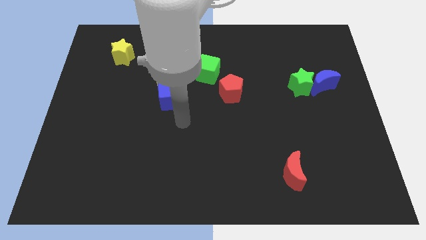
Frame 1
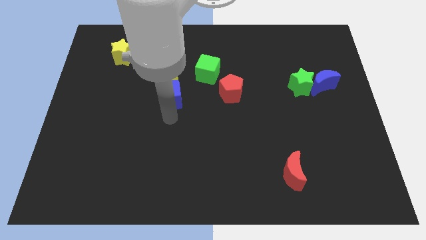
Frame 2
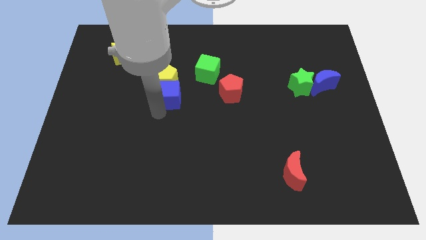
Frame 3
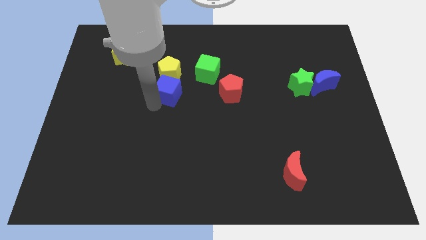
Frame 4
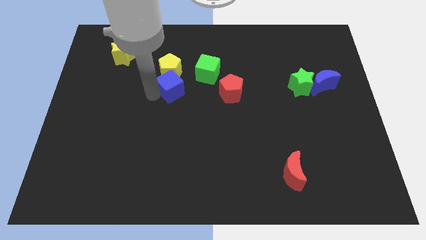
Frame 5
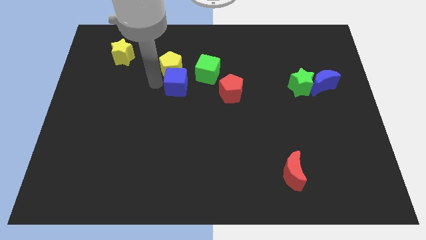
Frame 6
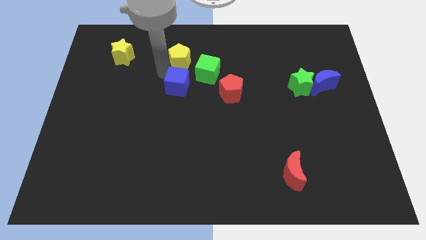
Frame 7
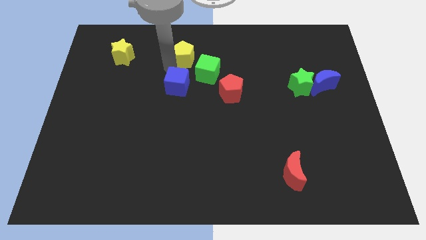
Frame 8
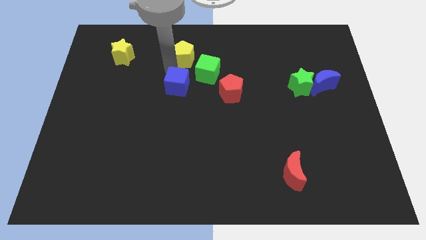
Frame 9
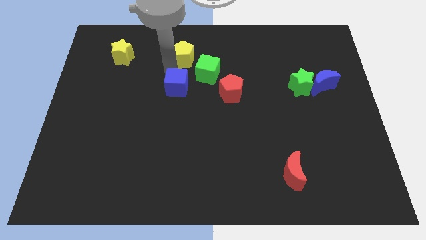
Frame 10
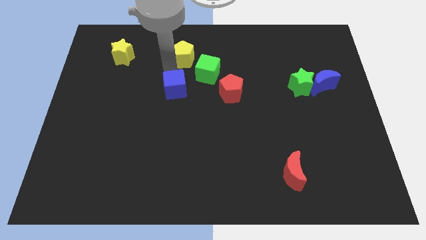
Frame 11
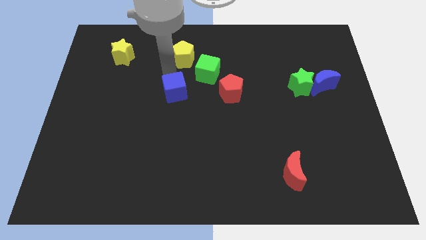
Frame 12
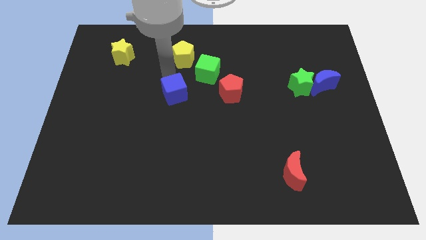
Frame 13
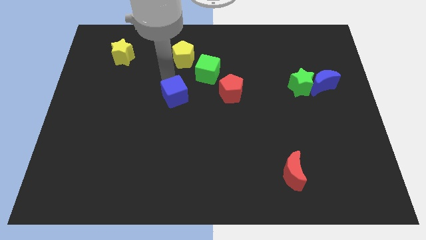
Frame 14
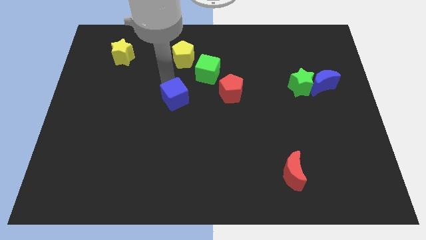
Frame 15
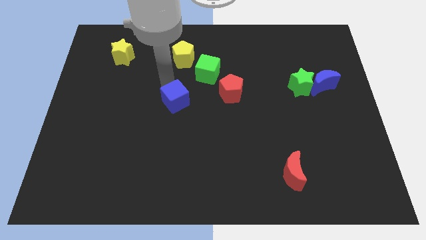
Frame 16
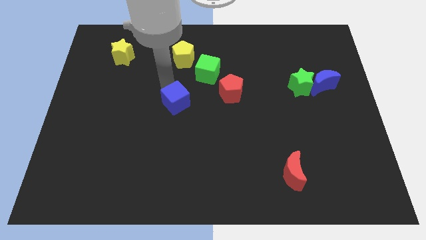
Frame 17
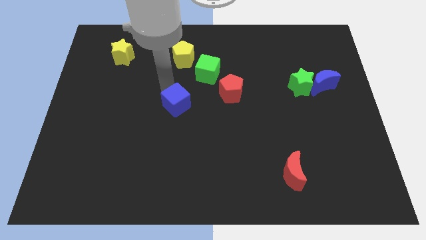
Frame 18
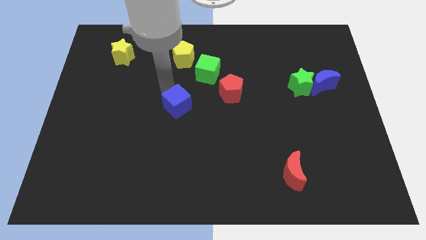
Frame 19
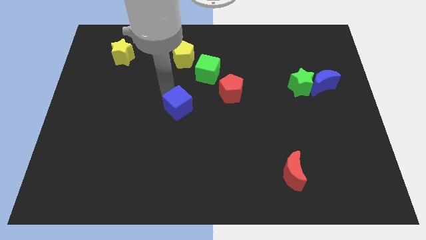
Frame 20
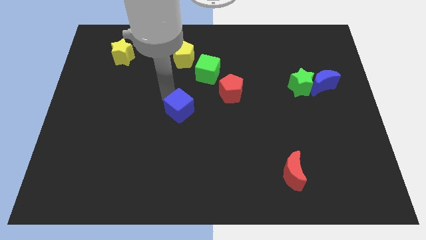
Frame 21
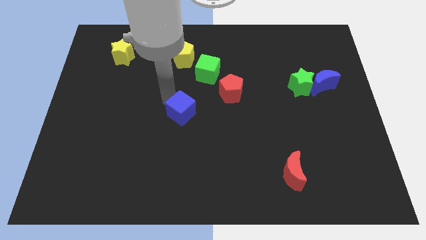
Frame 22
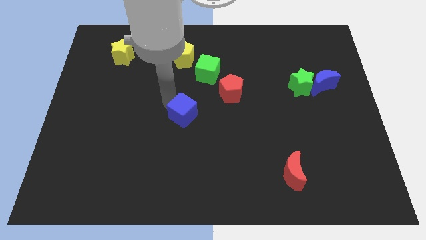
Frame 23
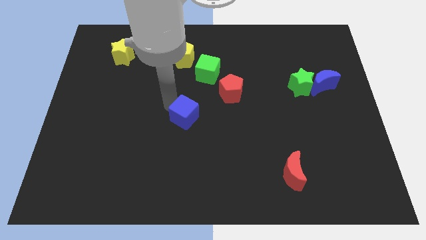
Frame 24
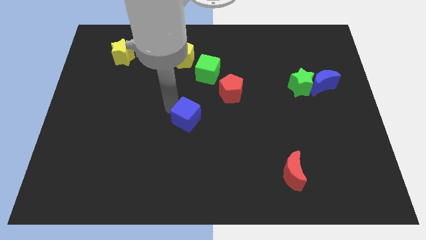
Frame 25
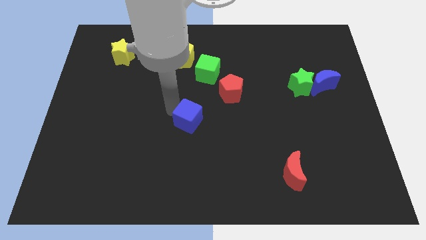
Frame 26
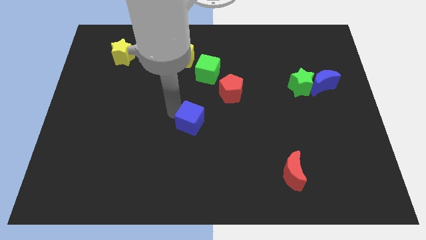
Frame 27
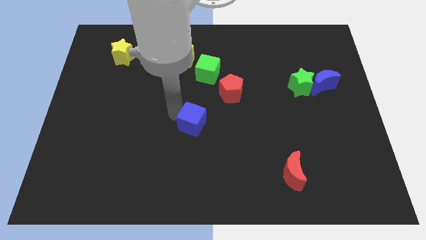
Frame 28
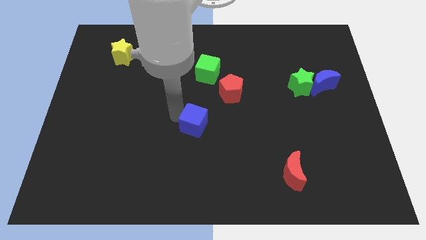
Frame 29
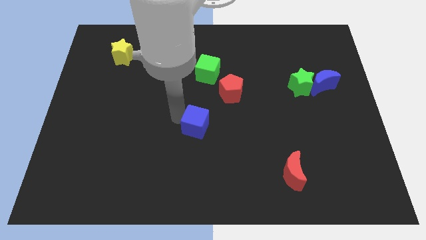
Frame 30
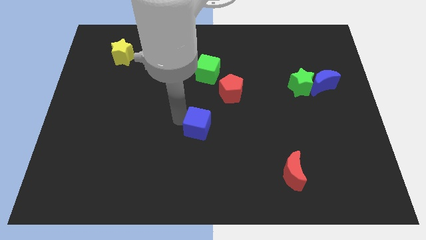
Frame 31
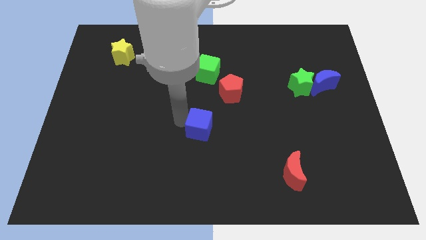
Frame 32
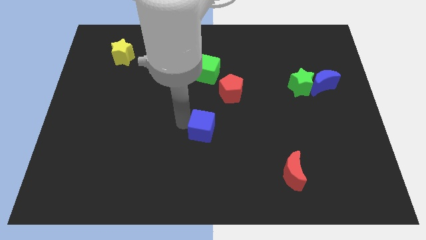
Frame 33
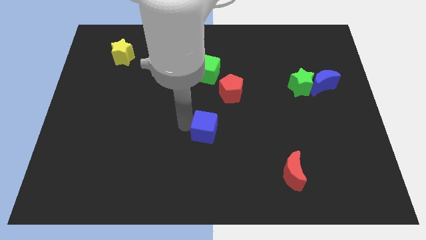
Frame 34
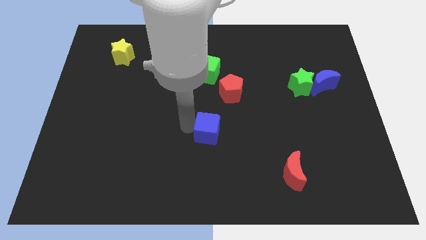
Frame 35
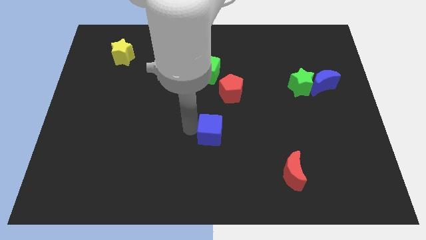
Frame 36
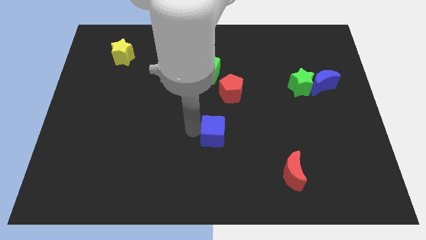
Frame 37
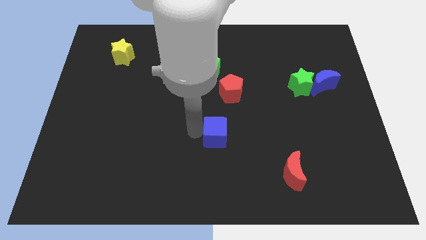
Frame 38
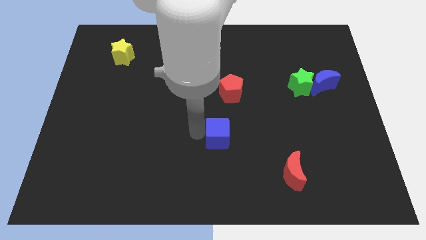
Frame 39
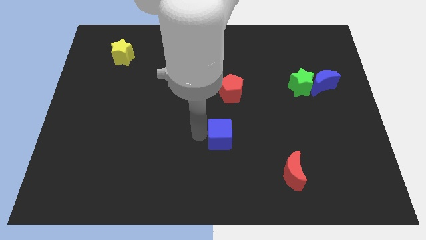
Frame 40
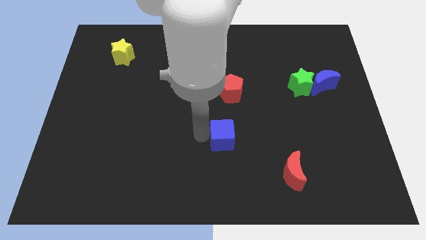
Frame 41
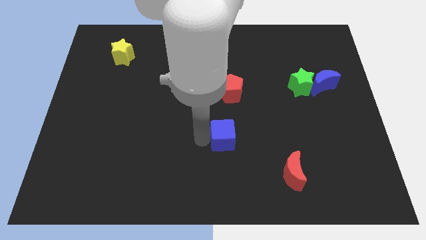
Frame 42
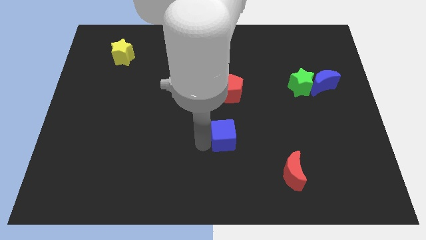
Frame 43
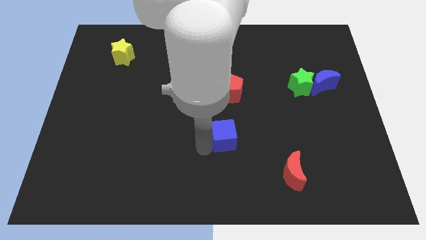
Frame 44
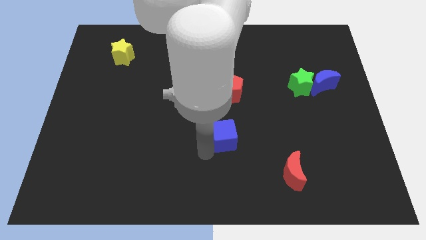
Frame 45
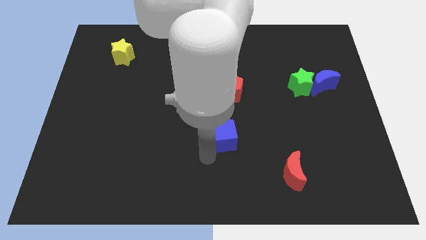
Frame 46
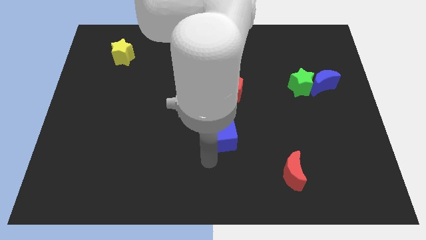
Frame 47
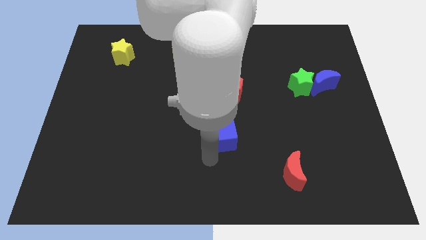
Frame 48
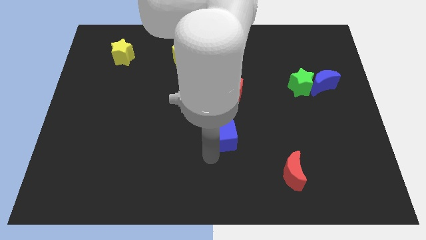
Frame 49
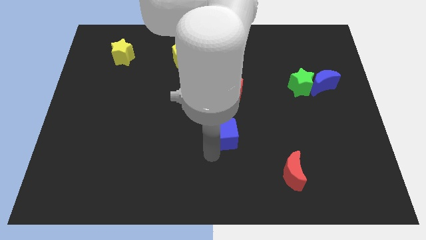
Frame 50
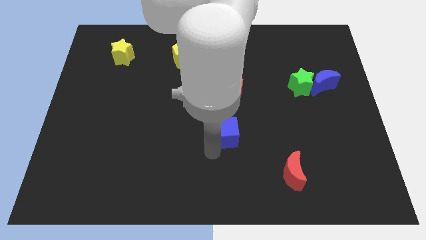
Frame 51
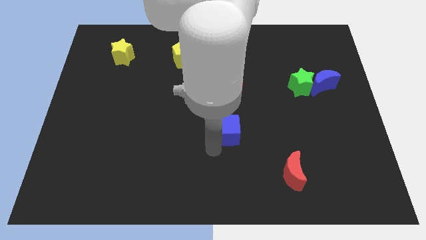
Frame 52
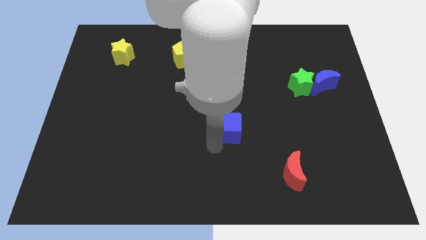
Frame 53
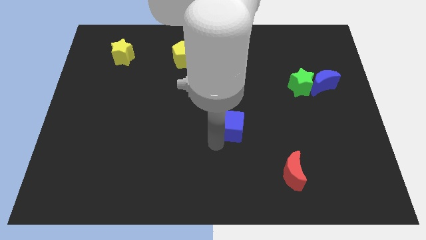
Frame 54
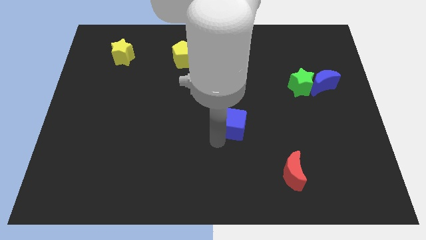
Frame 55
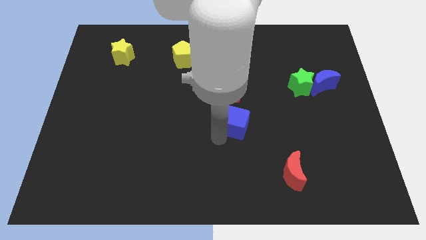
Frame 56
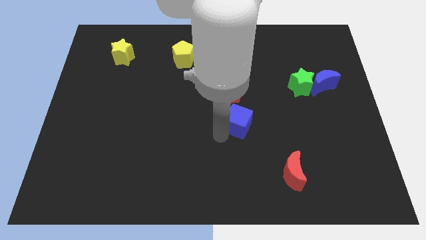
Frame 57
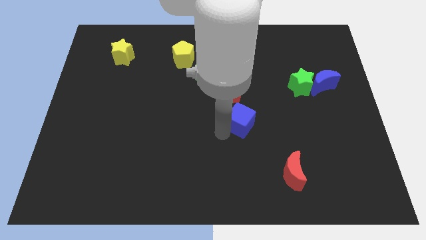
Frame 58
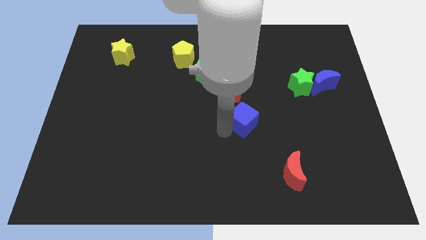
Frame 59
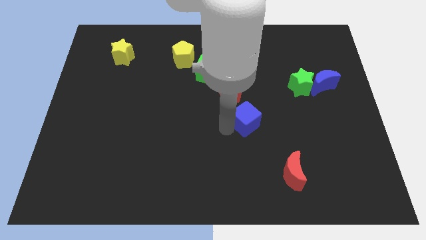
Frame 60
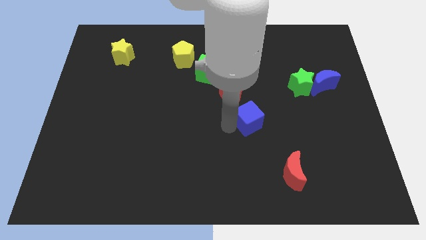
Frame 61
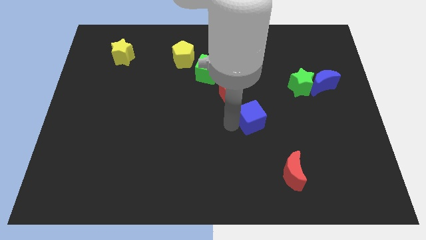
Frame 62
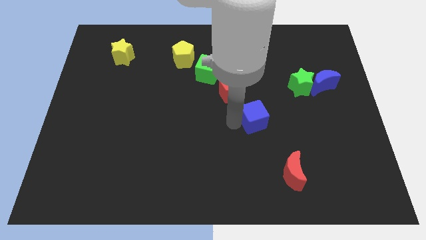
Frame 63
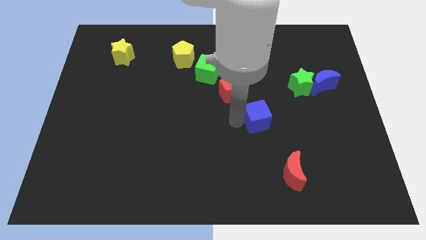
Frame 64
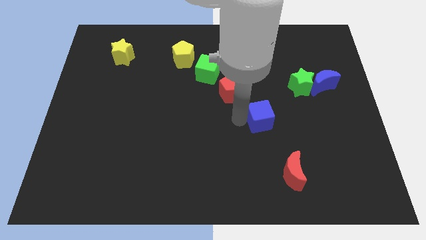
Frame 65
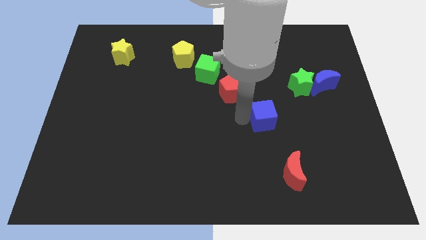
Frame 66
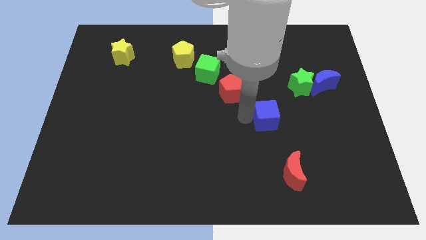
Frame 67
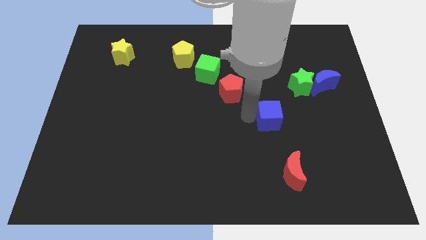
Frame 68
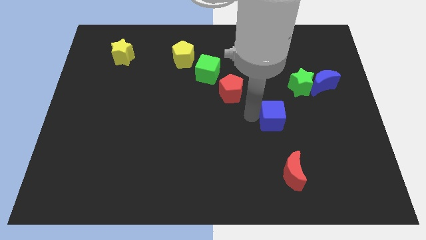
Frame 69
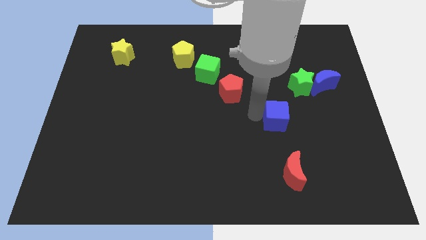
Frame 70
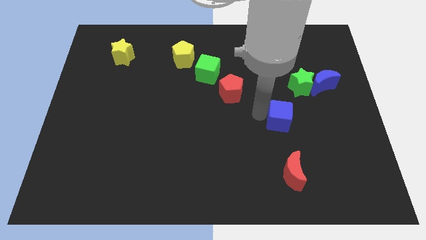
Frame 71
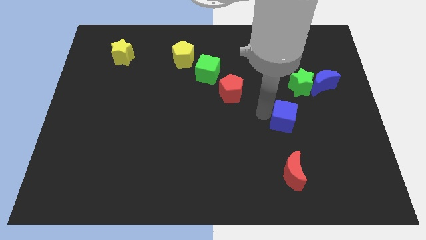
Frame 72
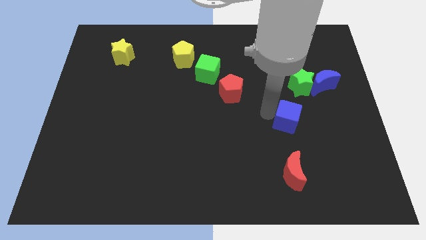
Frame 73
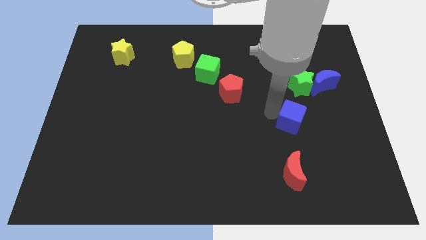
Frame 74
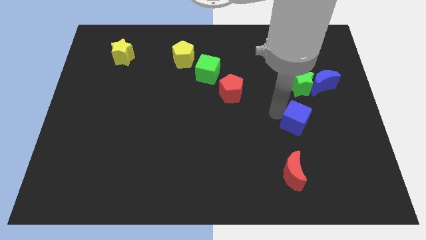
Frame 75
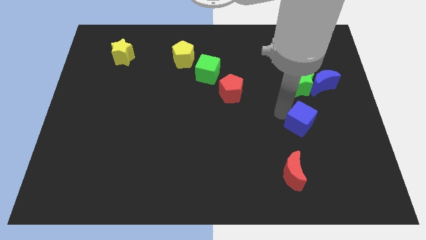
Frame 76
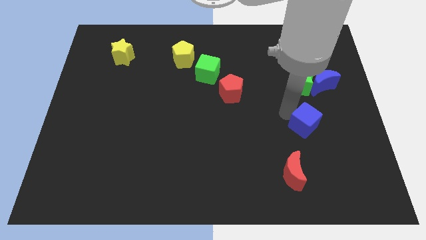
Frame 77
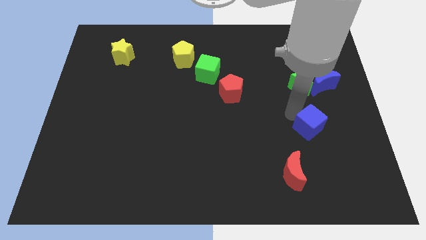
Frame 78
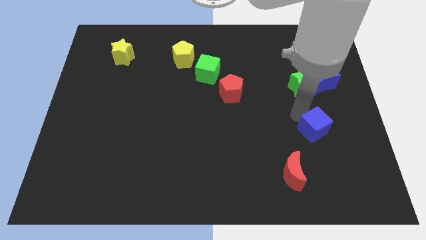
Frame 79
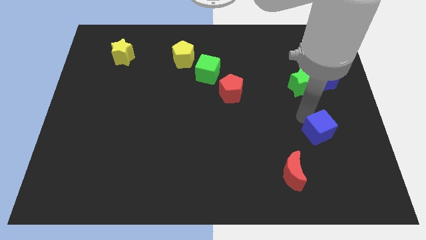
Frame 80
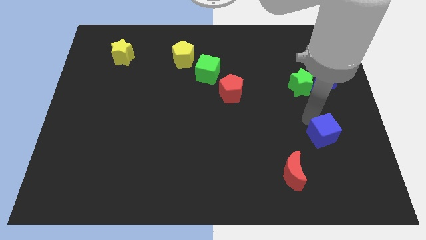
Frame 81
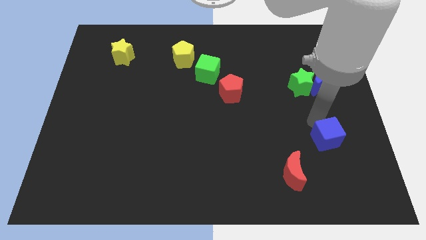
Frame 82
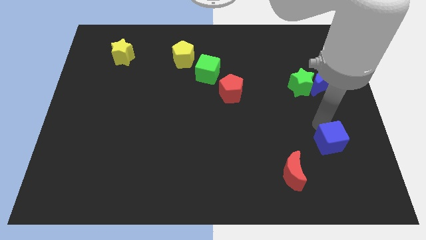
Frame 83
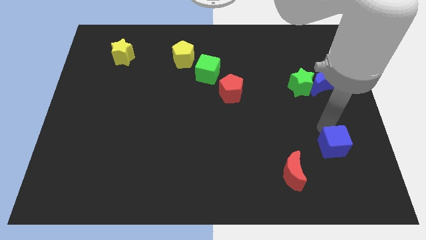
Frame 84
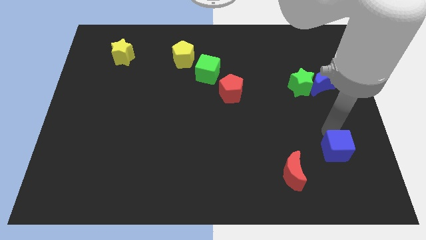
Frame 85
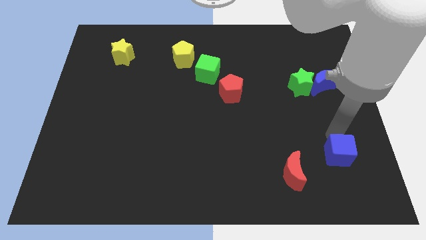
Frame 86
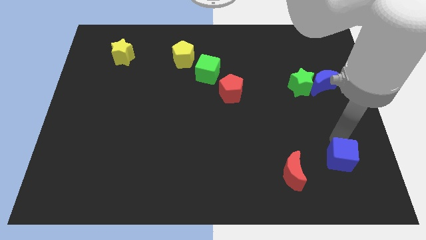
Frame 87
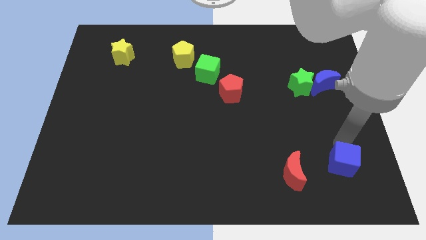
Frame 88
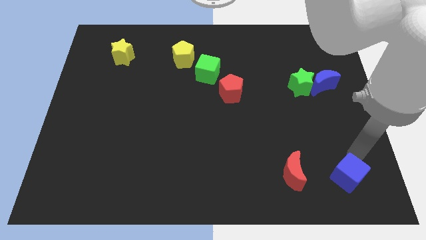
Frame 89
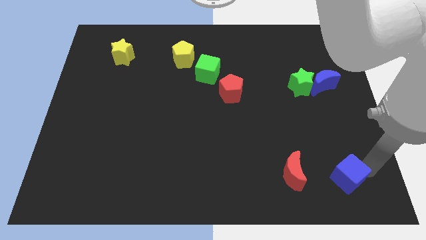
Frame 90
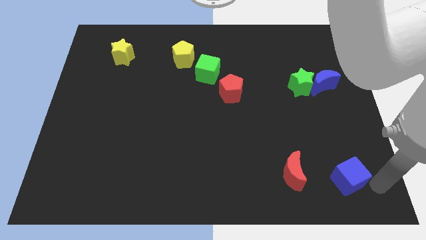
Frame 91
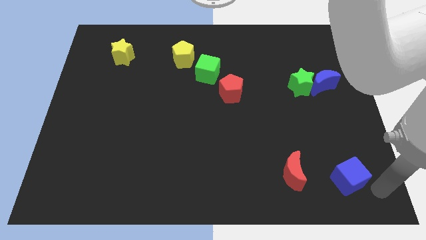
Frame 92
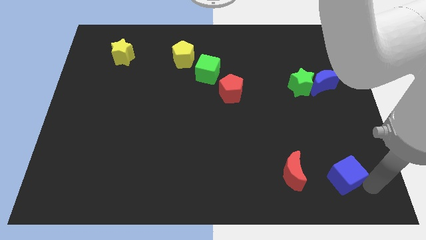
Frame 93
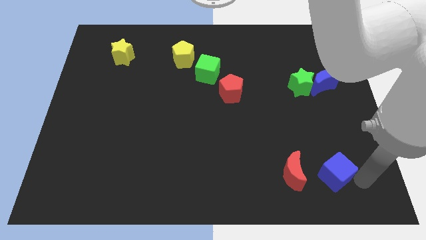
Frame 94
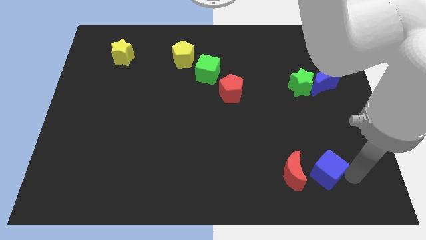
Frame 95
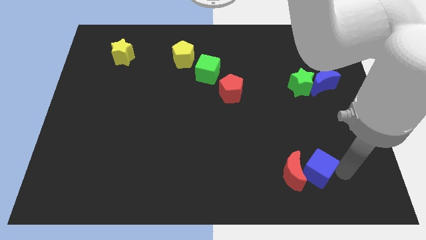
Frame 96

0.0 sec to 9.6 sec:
push the blue cube next to the red moon
